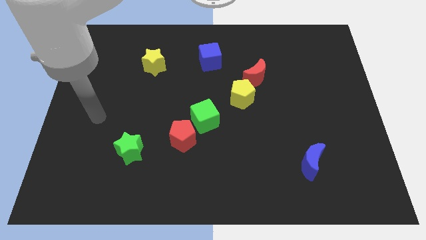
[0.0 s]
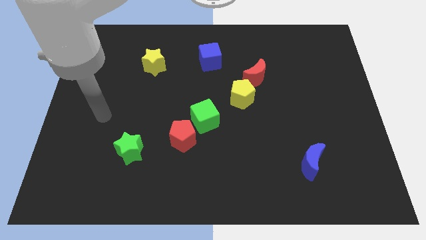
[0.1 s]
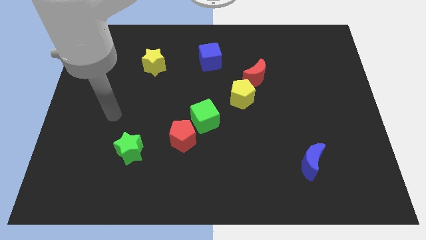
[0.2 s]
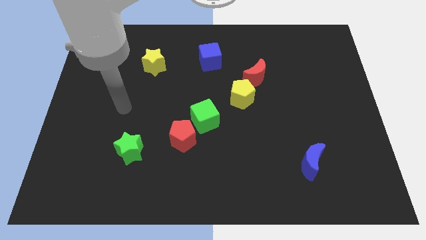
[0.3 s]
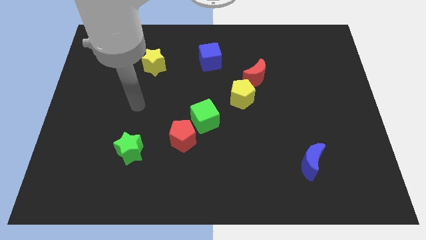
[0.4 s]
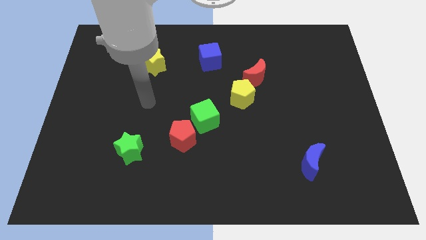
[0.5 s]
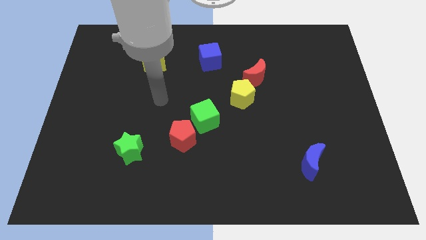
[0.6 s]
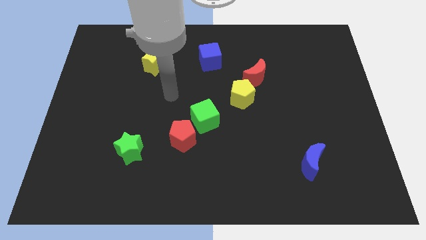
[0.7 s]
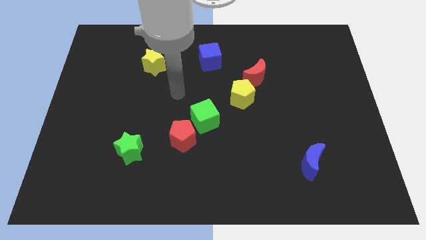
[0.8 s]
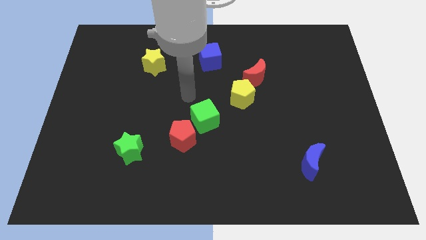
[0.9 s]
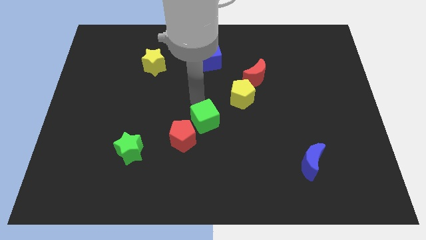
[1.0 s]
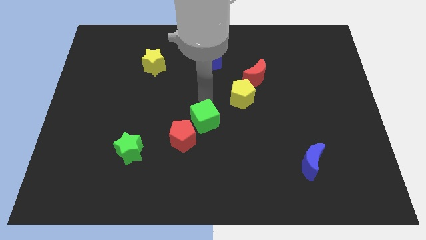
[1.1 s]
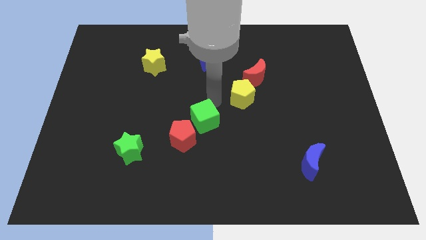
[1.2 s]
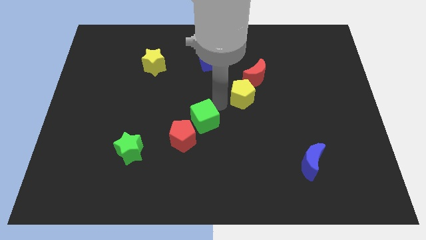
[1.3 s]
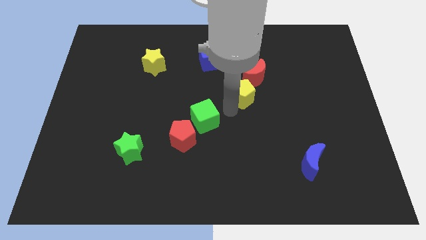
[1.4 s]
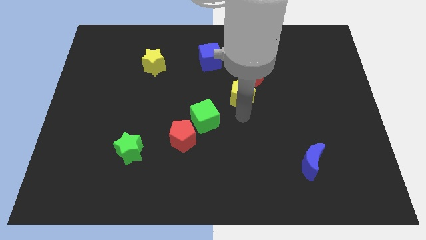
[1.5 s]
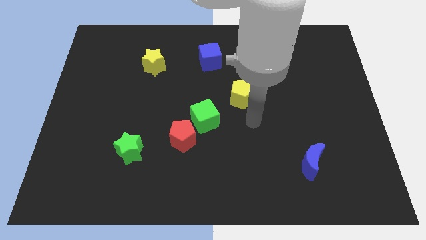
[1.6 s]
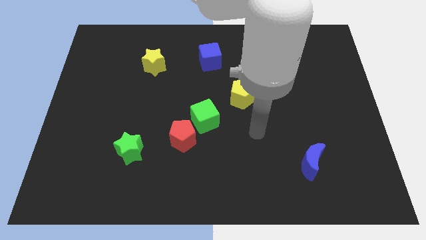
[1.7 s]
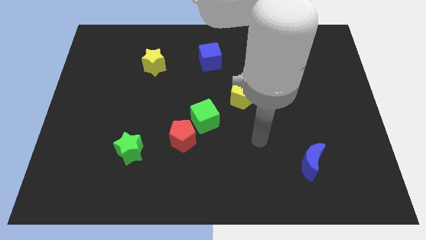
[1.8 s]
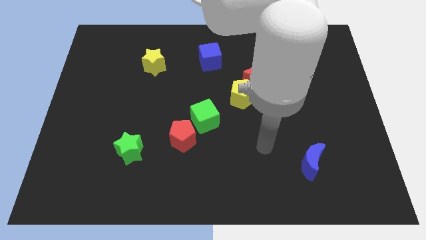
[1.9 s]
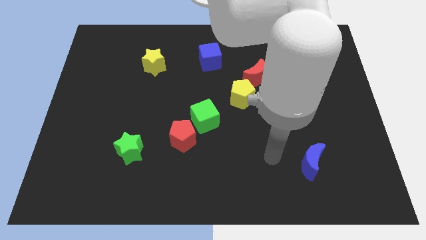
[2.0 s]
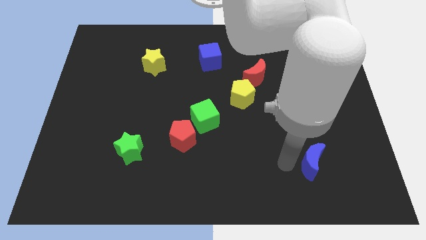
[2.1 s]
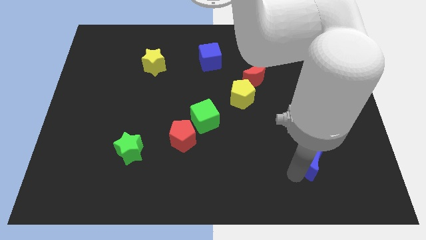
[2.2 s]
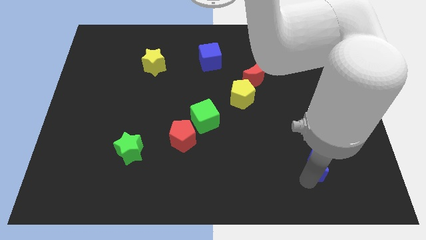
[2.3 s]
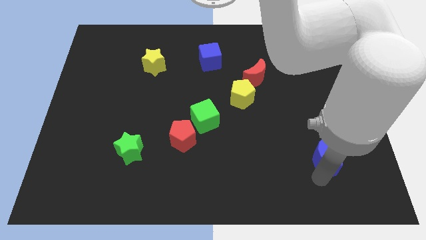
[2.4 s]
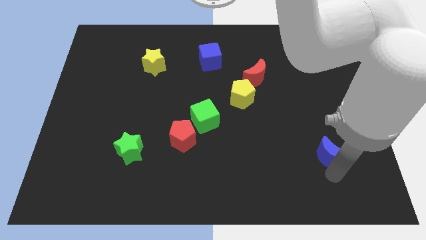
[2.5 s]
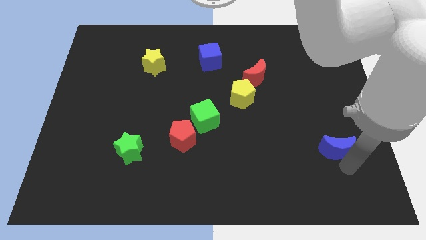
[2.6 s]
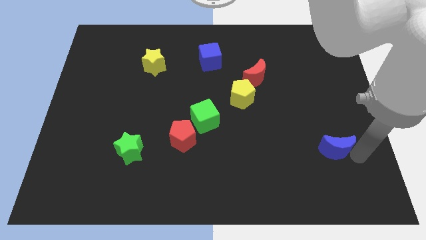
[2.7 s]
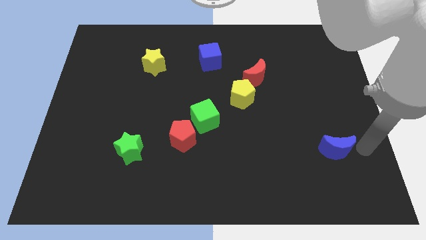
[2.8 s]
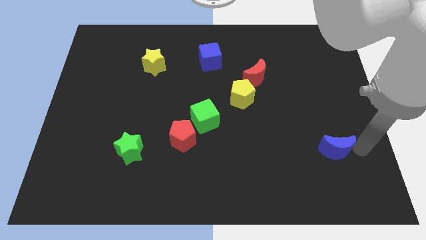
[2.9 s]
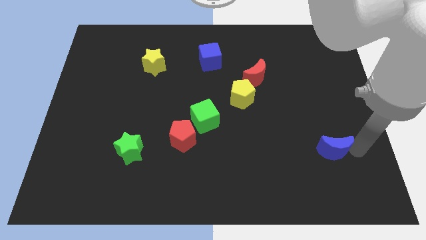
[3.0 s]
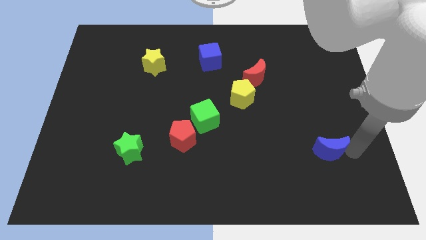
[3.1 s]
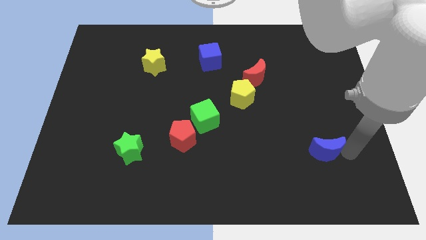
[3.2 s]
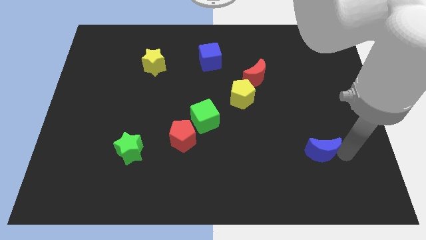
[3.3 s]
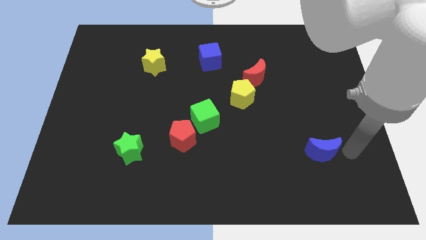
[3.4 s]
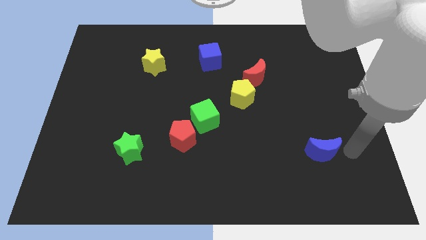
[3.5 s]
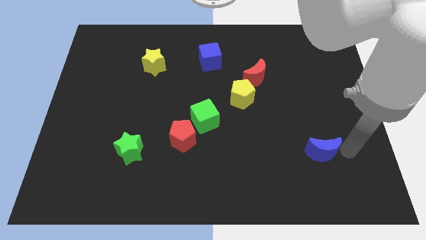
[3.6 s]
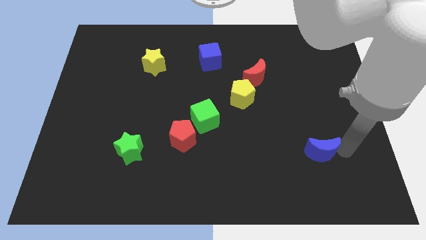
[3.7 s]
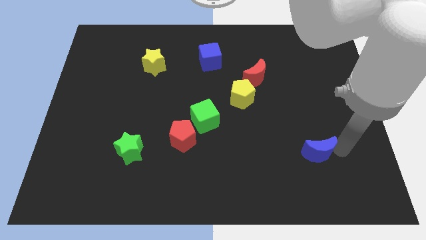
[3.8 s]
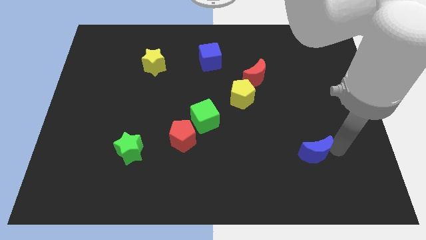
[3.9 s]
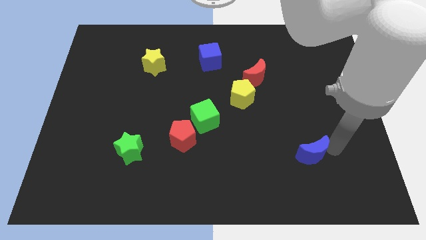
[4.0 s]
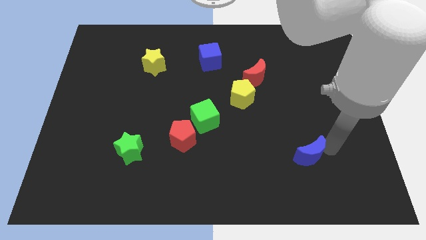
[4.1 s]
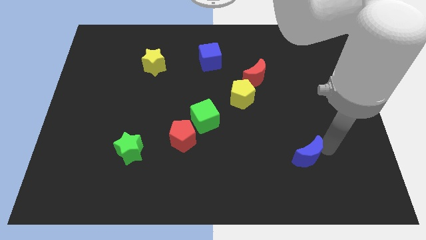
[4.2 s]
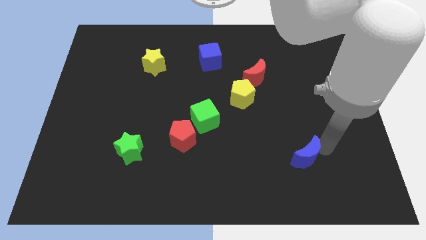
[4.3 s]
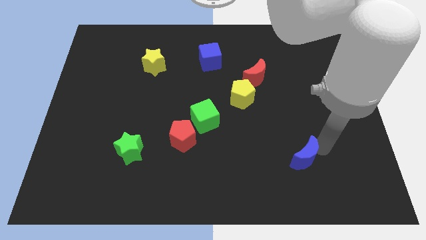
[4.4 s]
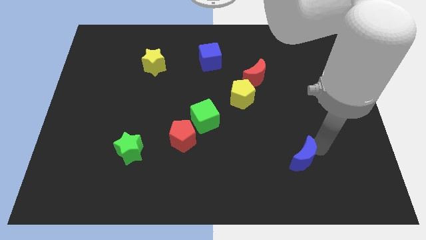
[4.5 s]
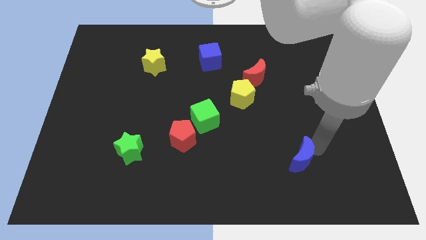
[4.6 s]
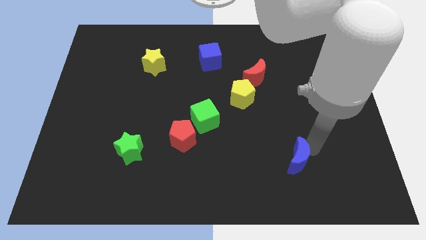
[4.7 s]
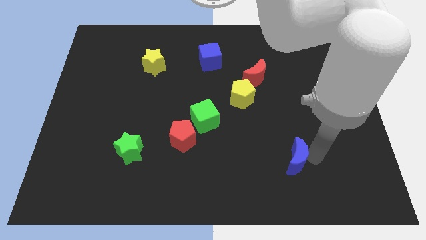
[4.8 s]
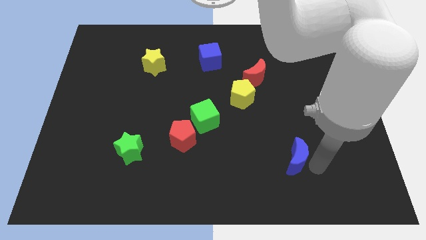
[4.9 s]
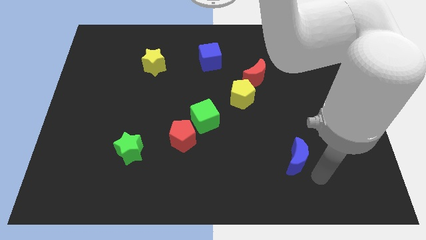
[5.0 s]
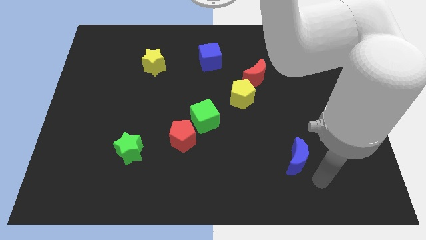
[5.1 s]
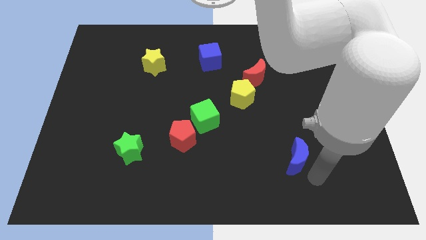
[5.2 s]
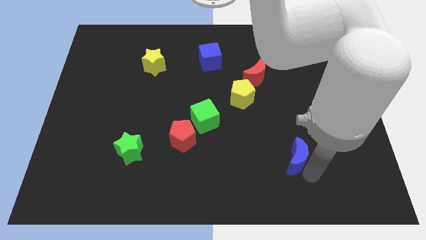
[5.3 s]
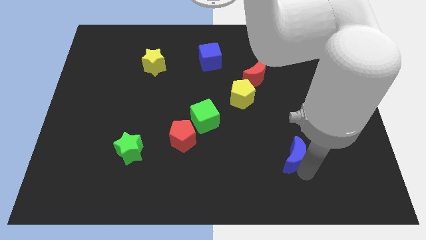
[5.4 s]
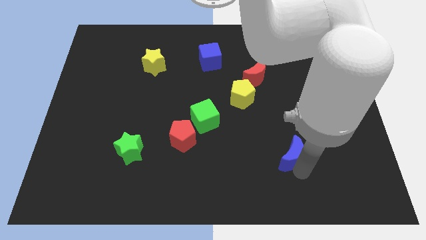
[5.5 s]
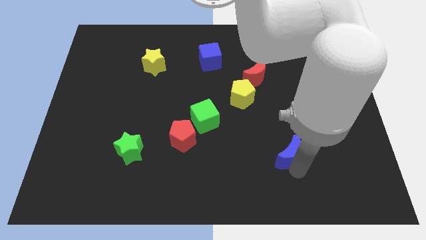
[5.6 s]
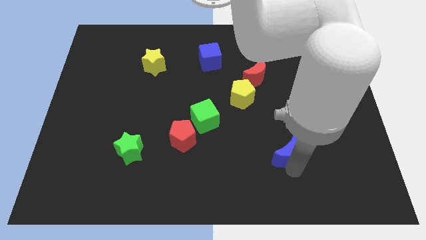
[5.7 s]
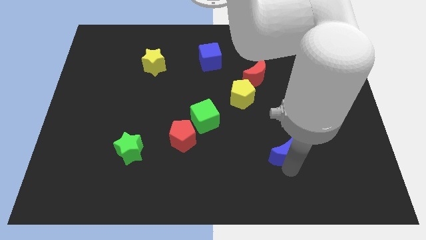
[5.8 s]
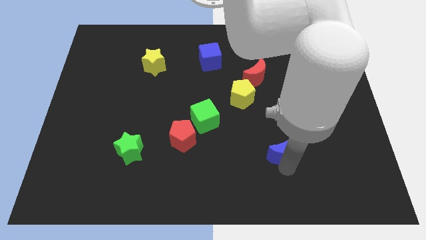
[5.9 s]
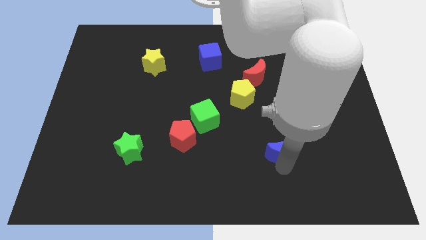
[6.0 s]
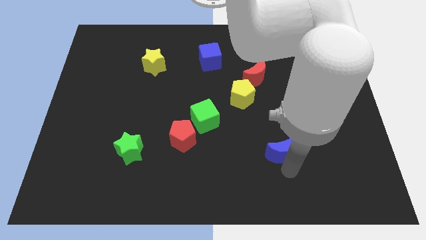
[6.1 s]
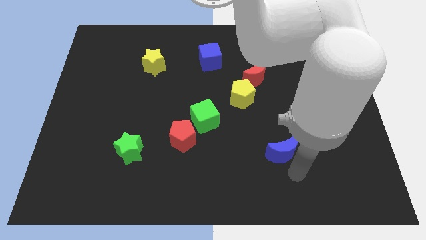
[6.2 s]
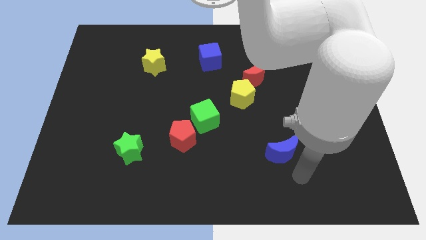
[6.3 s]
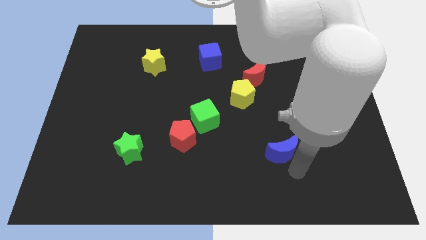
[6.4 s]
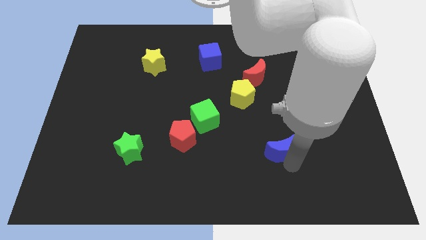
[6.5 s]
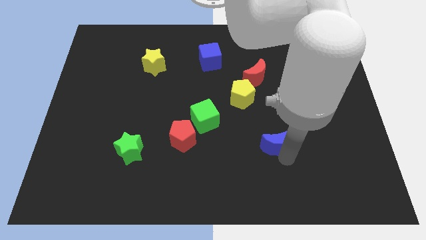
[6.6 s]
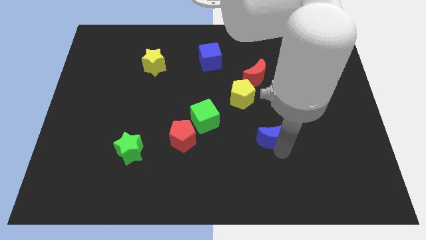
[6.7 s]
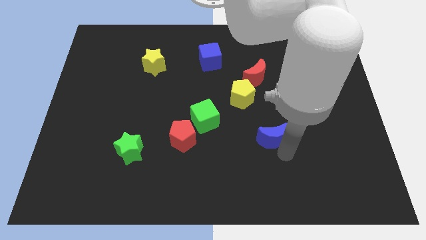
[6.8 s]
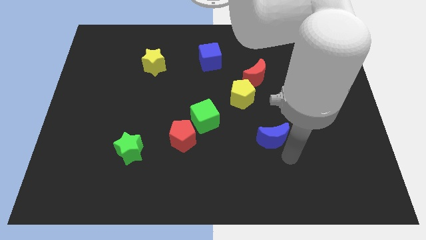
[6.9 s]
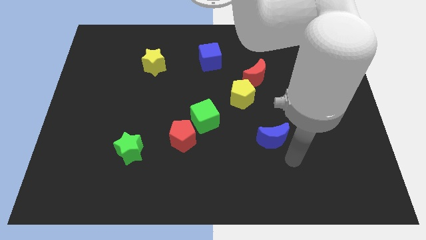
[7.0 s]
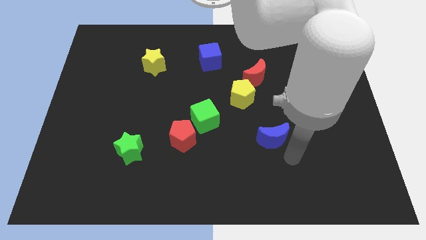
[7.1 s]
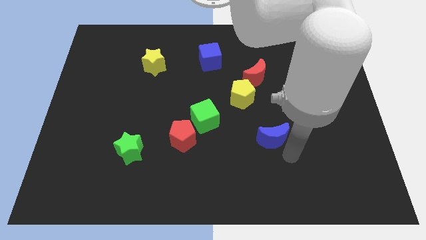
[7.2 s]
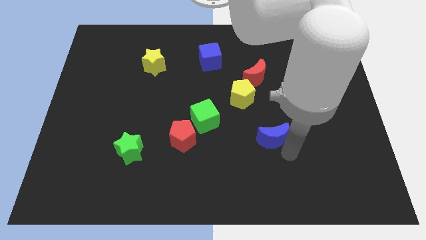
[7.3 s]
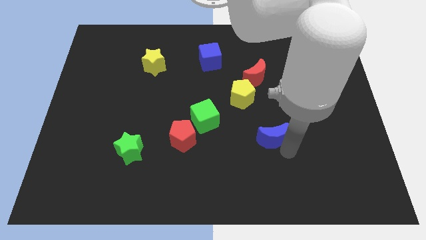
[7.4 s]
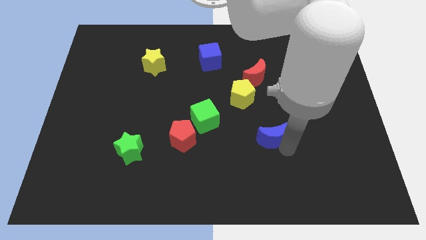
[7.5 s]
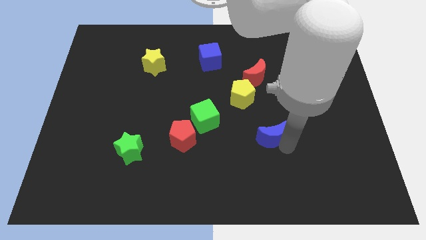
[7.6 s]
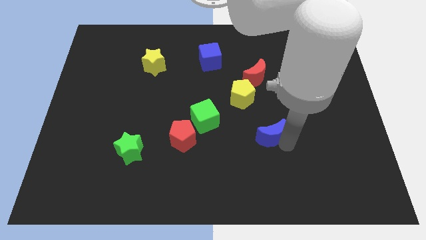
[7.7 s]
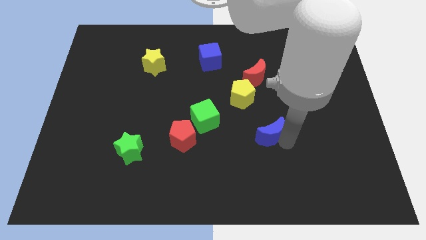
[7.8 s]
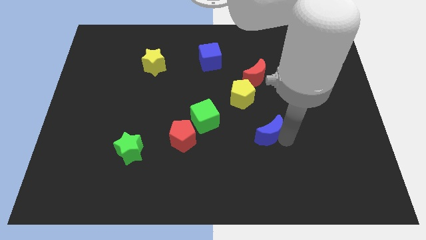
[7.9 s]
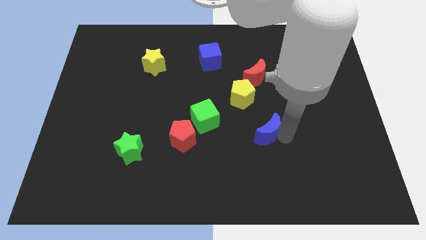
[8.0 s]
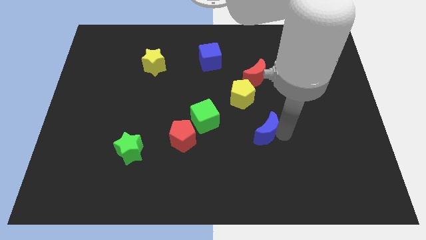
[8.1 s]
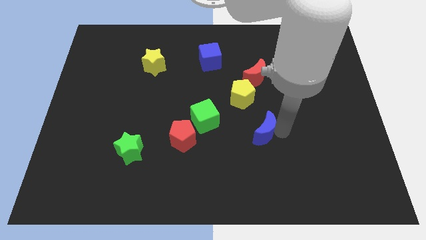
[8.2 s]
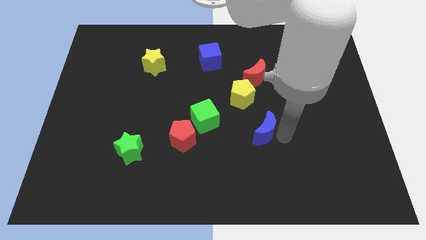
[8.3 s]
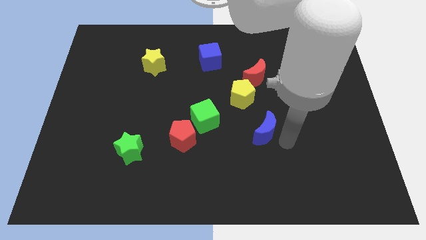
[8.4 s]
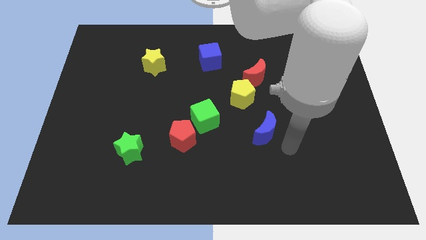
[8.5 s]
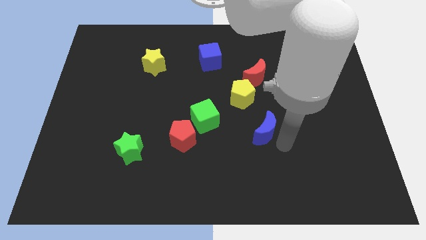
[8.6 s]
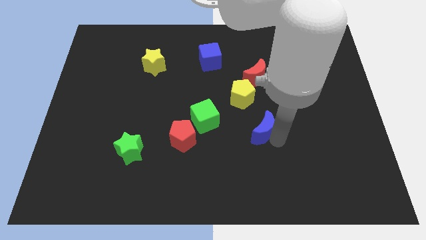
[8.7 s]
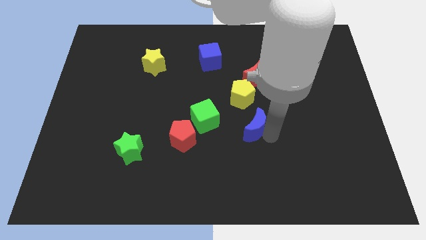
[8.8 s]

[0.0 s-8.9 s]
put the blue moon to the middle
